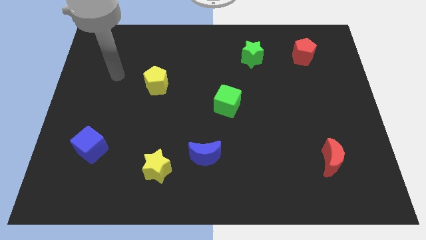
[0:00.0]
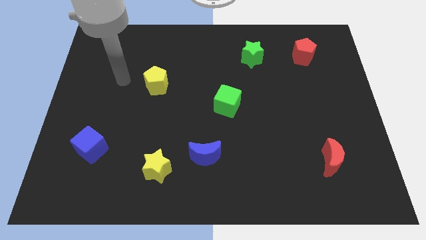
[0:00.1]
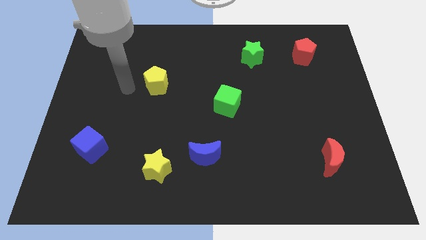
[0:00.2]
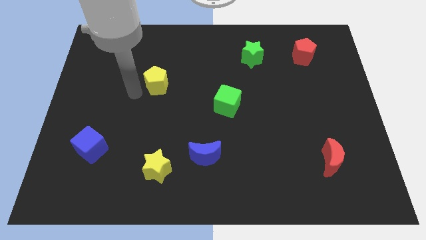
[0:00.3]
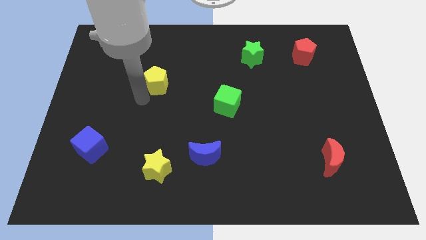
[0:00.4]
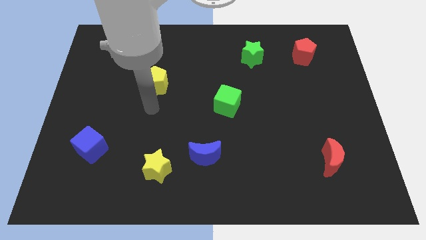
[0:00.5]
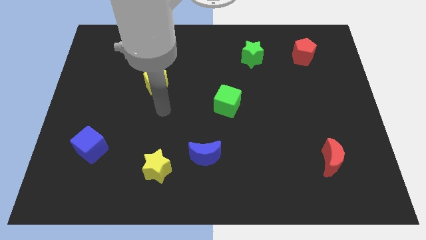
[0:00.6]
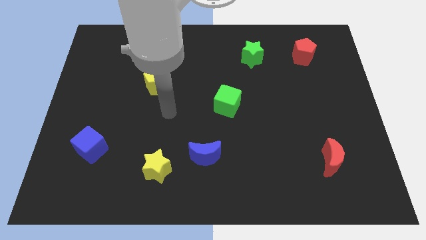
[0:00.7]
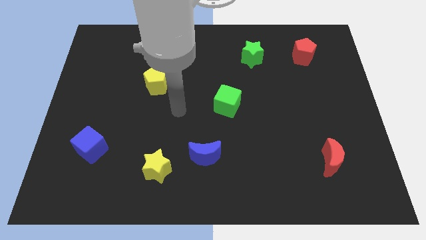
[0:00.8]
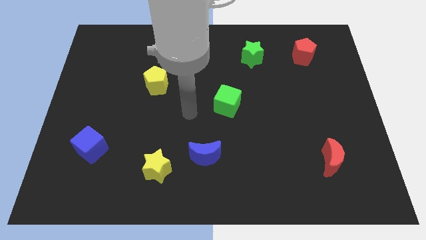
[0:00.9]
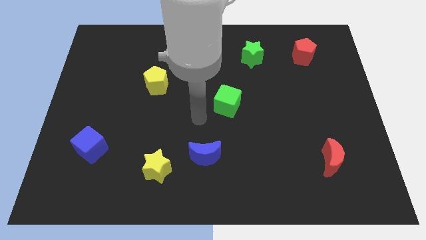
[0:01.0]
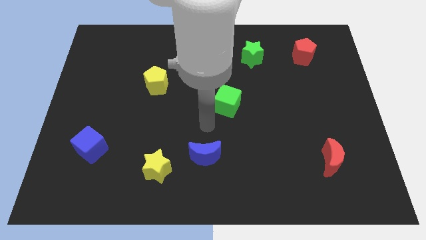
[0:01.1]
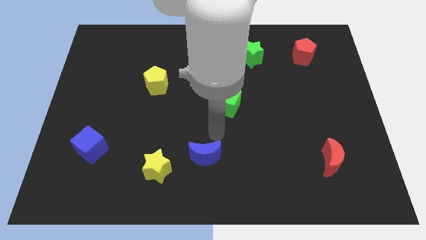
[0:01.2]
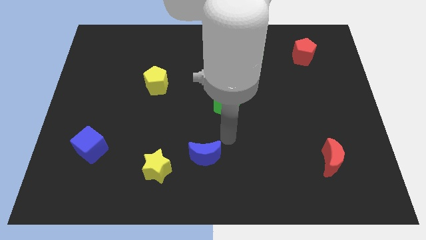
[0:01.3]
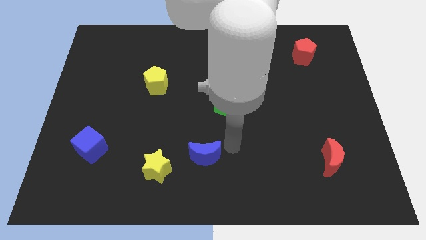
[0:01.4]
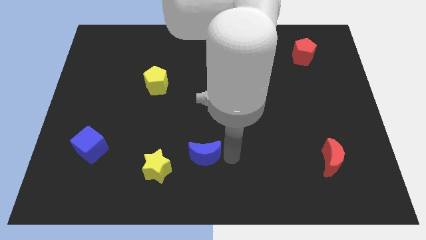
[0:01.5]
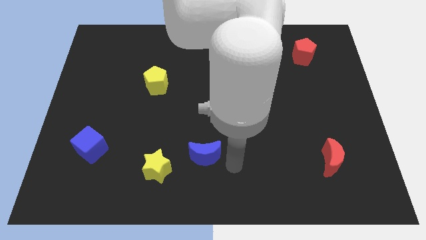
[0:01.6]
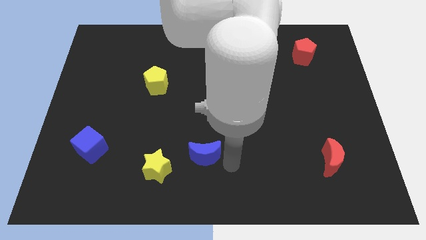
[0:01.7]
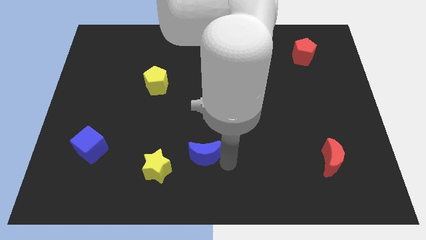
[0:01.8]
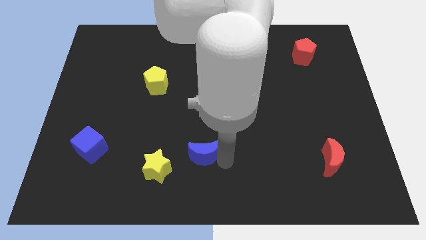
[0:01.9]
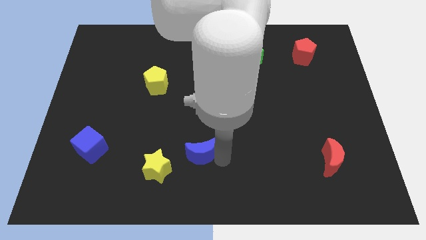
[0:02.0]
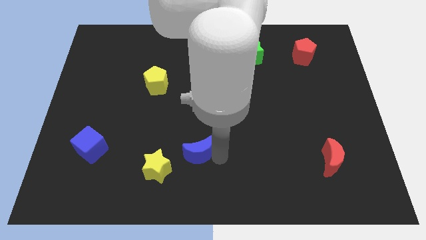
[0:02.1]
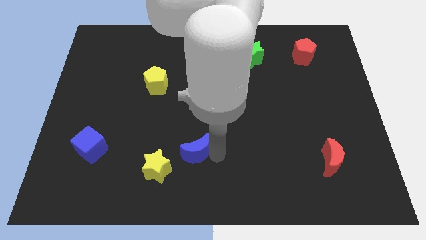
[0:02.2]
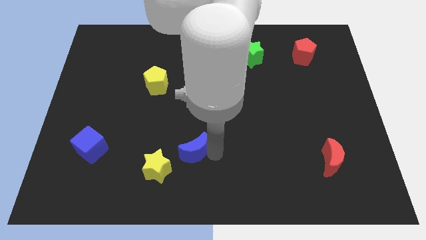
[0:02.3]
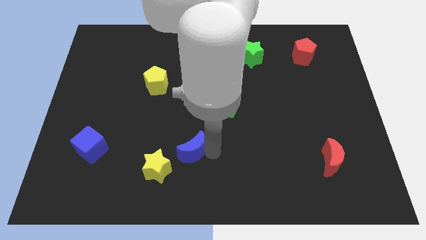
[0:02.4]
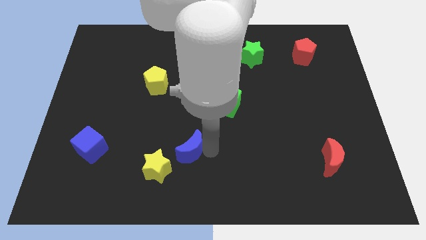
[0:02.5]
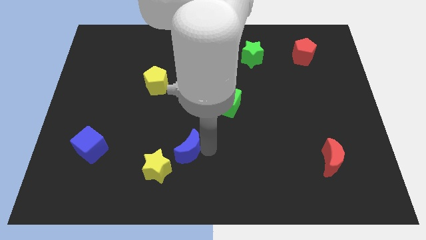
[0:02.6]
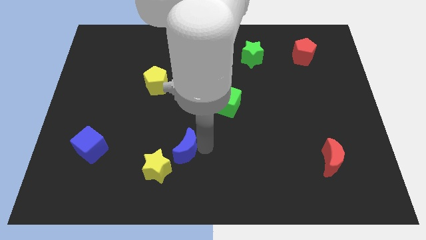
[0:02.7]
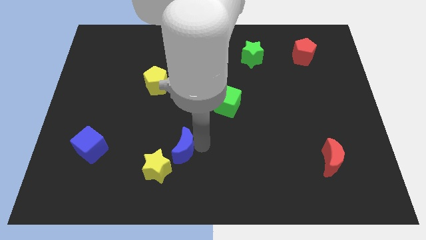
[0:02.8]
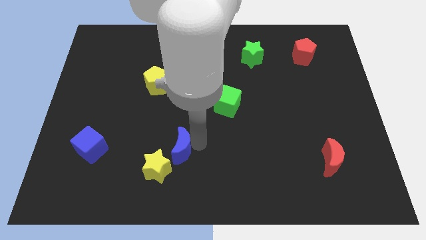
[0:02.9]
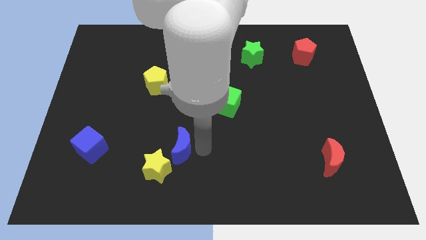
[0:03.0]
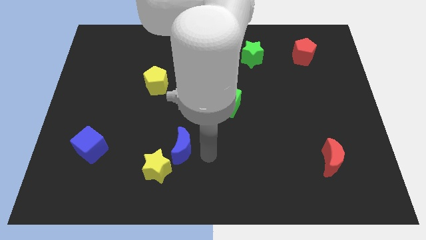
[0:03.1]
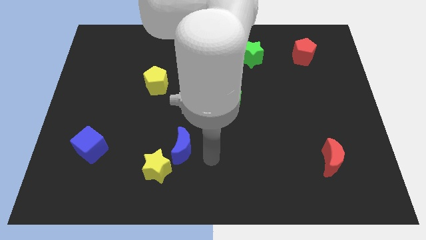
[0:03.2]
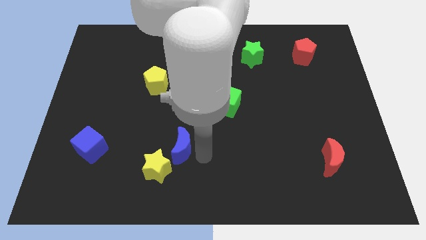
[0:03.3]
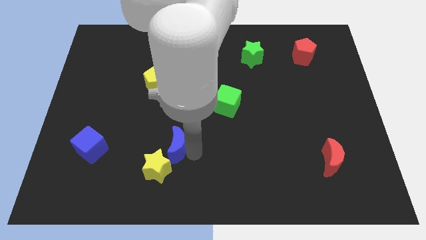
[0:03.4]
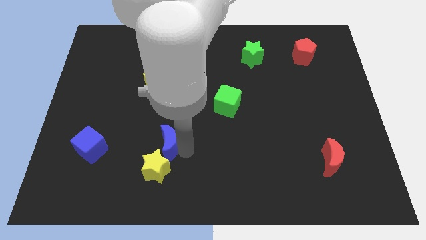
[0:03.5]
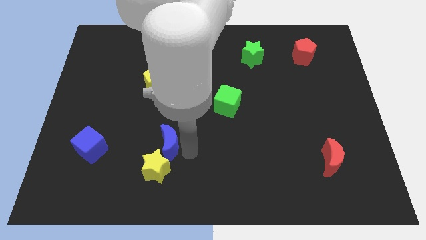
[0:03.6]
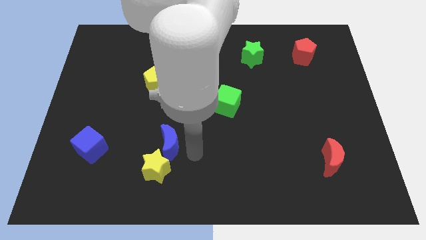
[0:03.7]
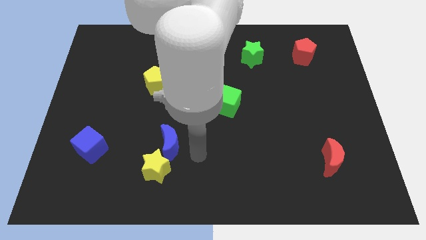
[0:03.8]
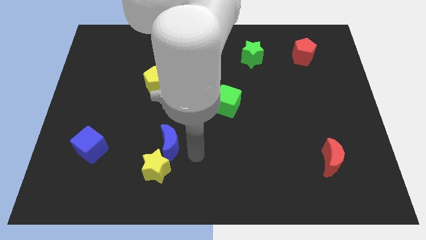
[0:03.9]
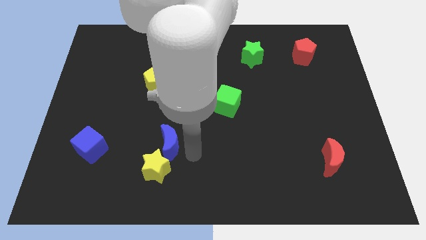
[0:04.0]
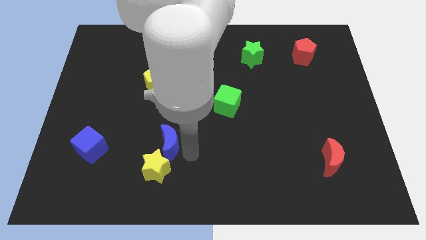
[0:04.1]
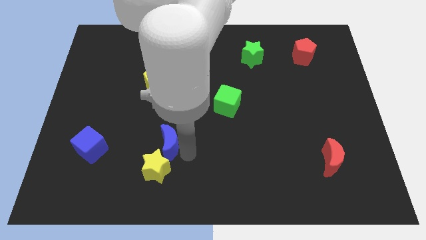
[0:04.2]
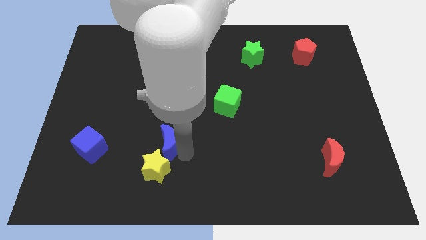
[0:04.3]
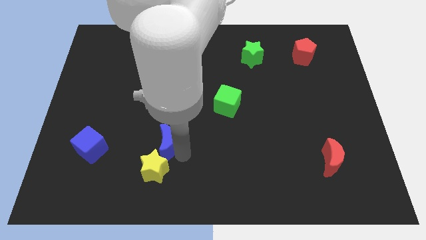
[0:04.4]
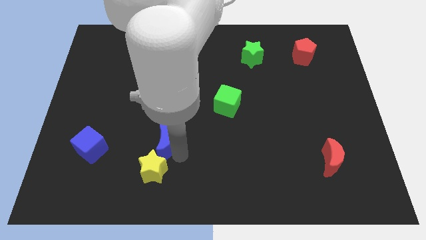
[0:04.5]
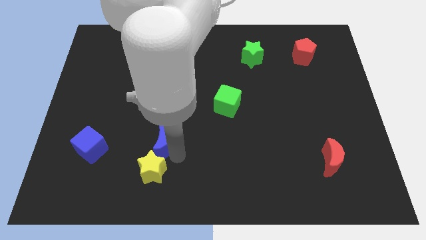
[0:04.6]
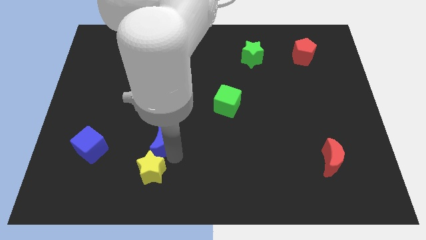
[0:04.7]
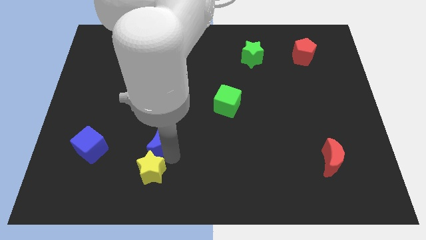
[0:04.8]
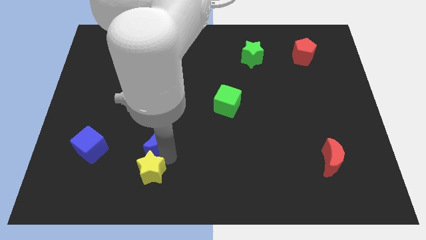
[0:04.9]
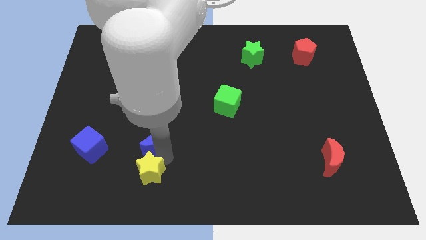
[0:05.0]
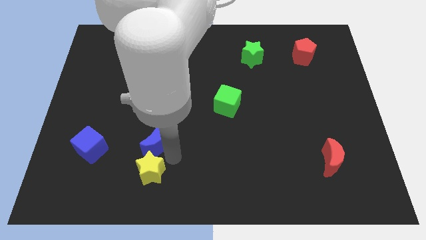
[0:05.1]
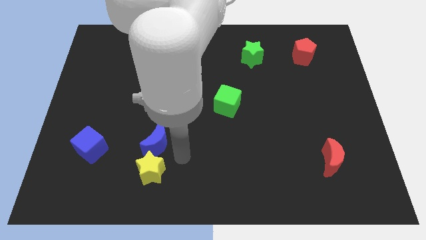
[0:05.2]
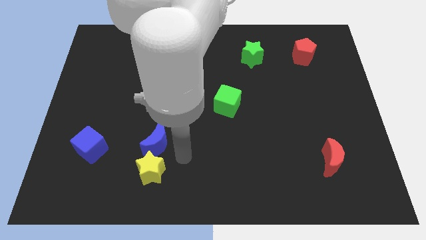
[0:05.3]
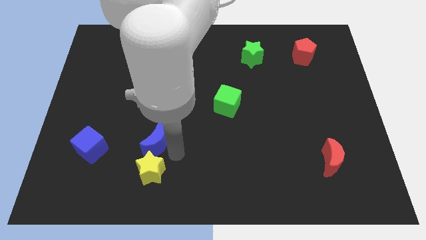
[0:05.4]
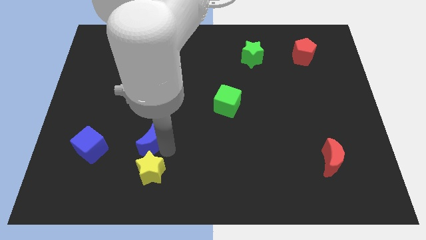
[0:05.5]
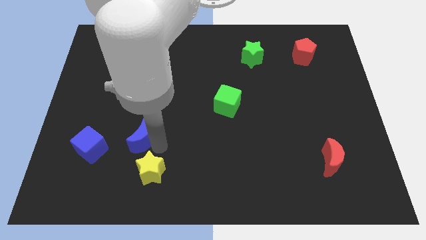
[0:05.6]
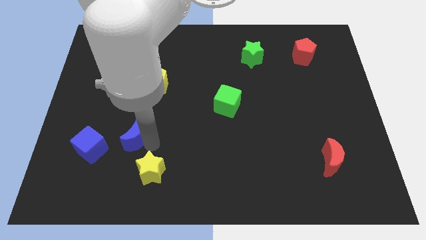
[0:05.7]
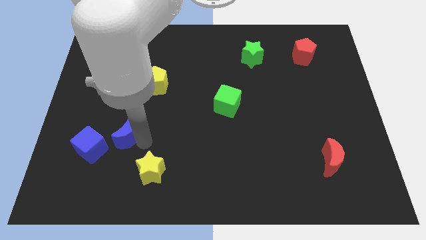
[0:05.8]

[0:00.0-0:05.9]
slide the blue moon to the top right of the blue cube

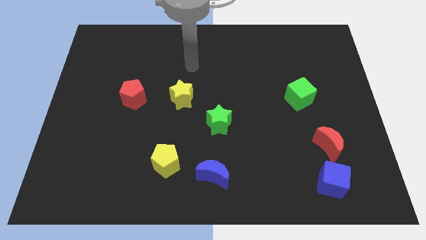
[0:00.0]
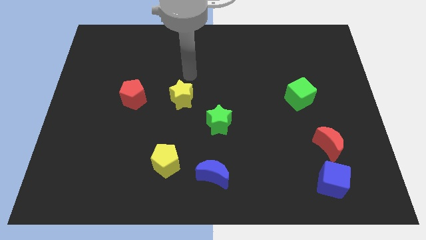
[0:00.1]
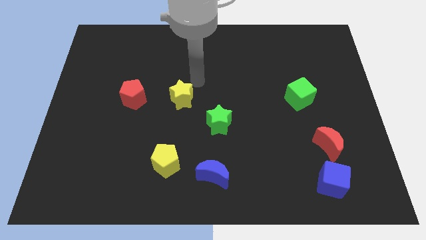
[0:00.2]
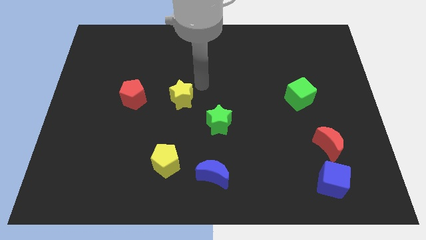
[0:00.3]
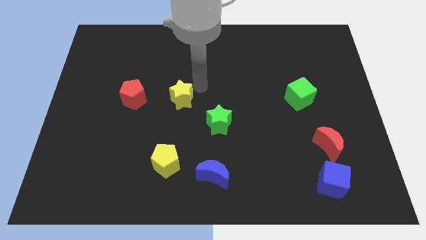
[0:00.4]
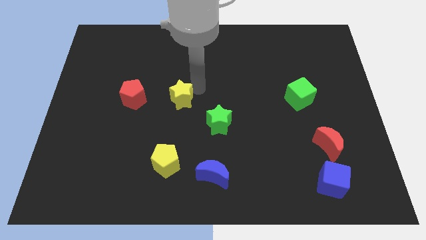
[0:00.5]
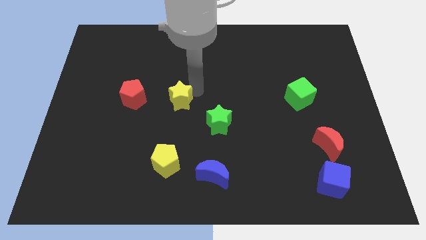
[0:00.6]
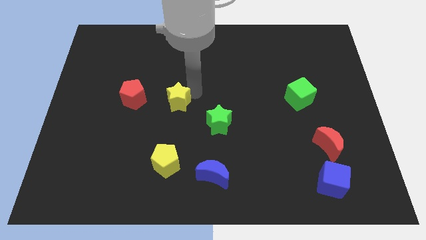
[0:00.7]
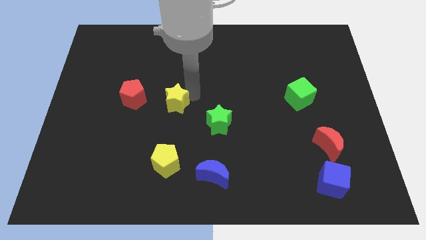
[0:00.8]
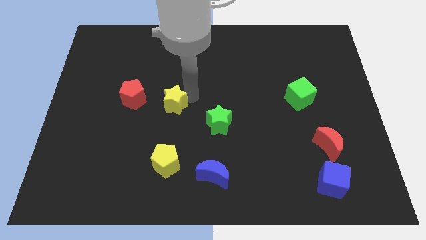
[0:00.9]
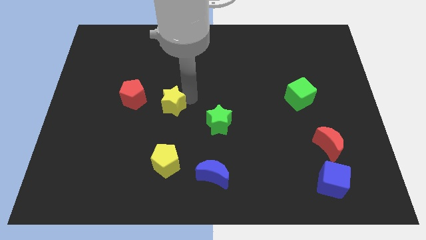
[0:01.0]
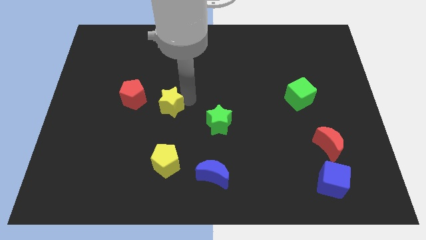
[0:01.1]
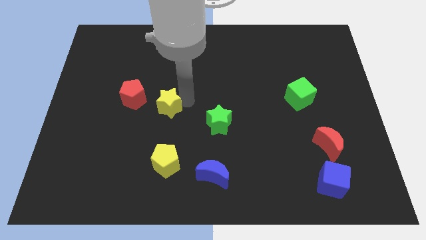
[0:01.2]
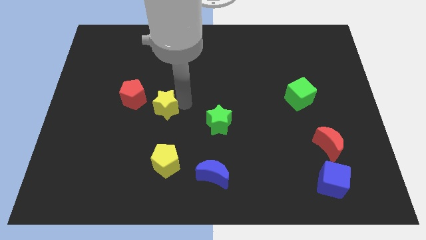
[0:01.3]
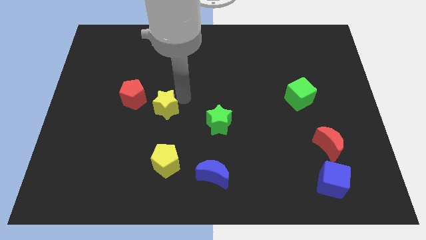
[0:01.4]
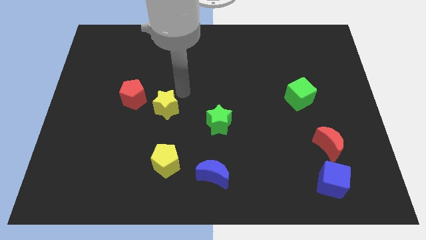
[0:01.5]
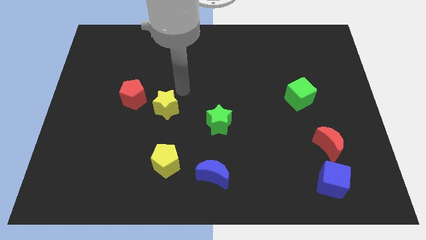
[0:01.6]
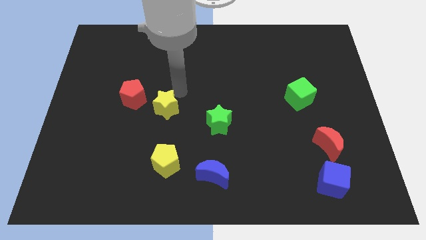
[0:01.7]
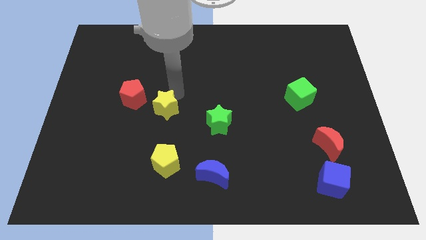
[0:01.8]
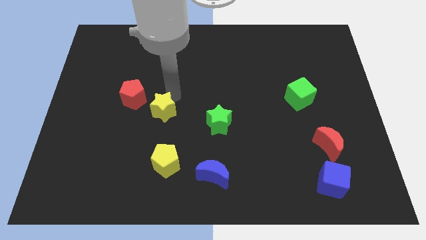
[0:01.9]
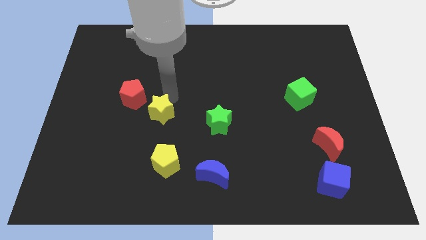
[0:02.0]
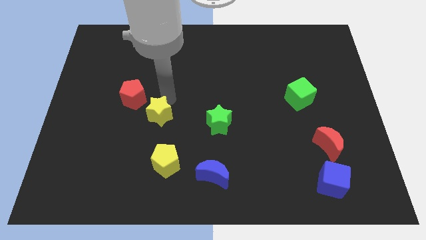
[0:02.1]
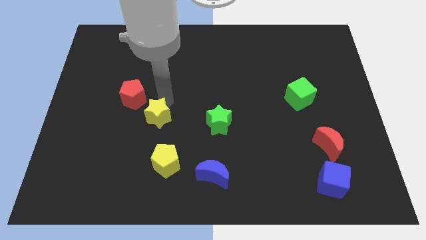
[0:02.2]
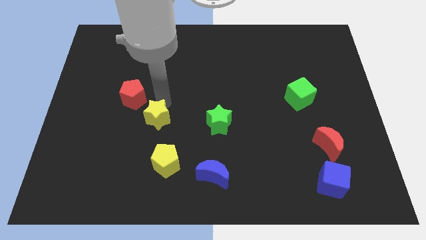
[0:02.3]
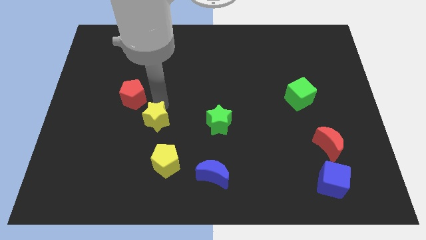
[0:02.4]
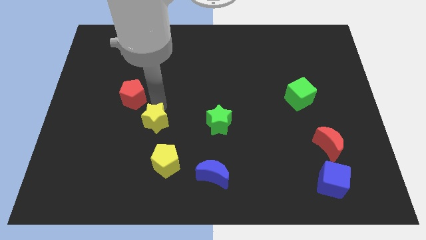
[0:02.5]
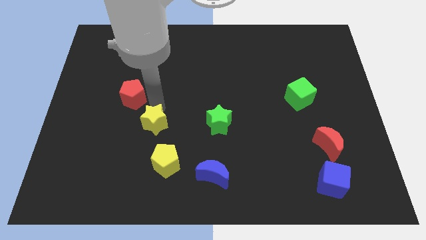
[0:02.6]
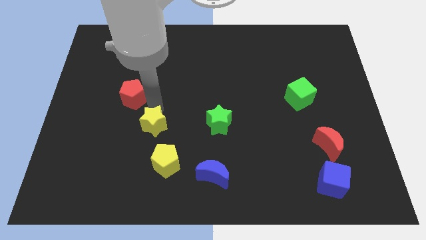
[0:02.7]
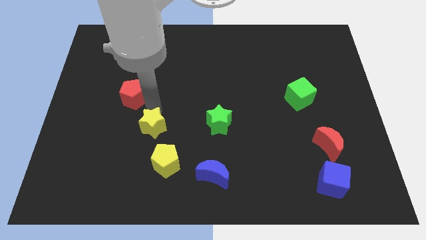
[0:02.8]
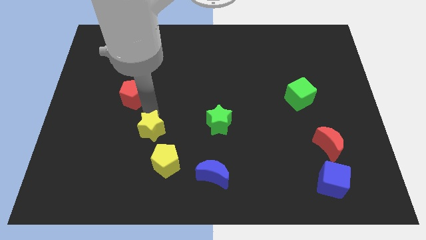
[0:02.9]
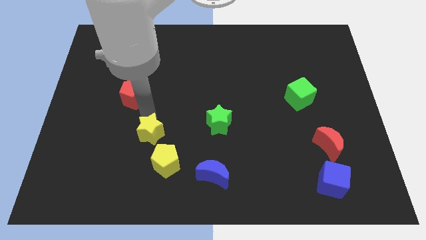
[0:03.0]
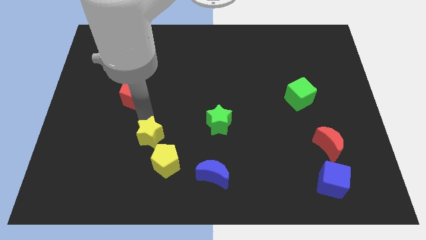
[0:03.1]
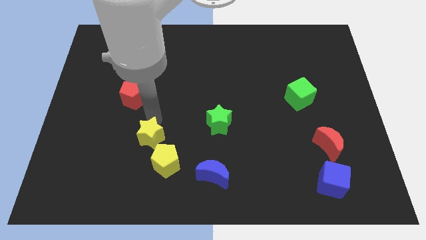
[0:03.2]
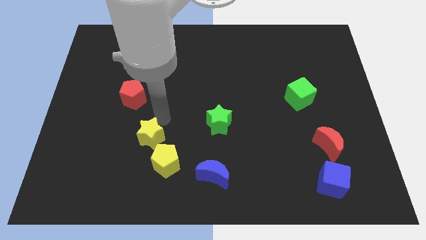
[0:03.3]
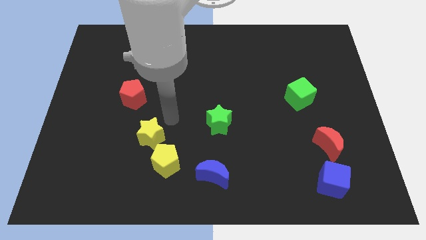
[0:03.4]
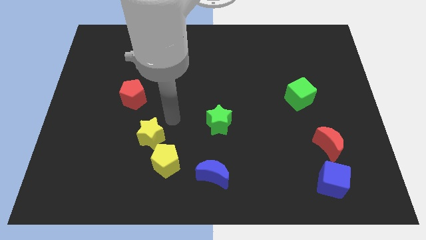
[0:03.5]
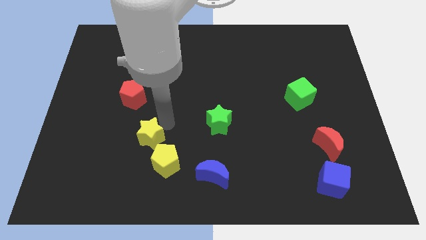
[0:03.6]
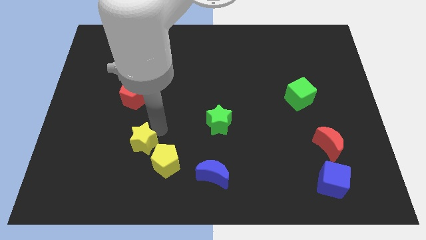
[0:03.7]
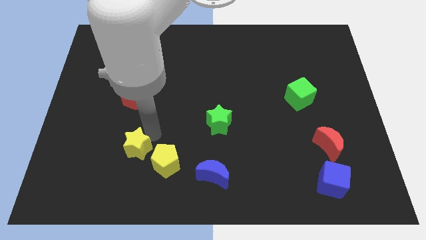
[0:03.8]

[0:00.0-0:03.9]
push the yellow star just left of the yellow pentagon
